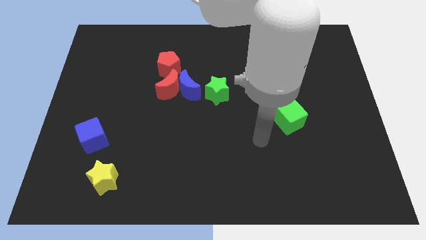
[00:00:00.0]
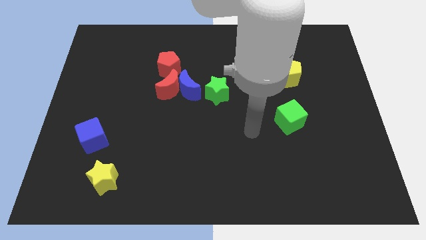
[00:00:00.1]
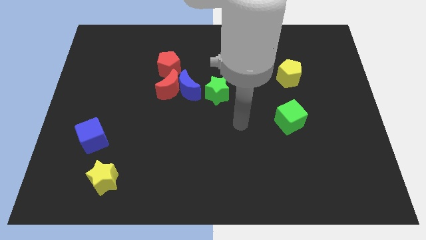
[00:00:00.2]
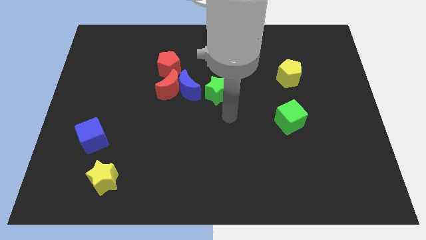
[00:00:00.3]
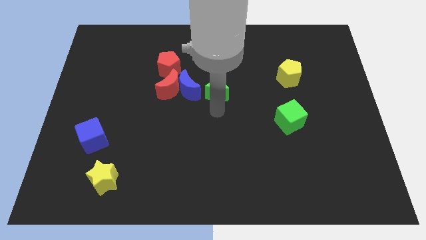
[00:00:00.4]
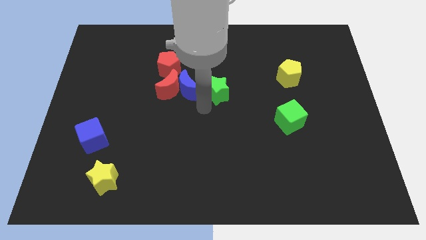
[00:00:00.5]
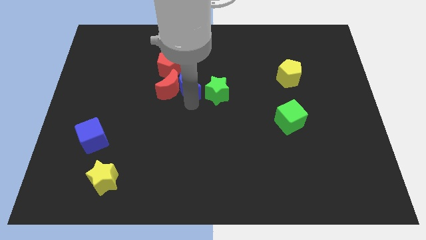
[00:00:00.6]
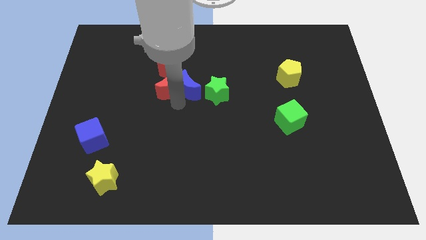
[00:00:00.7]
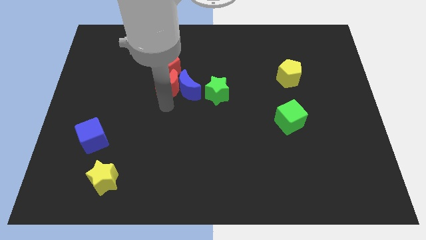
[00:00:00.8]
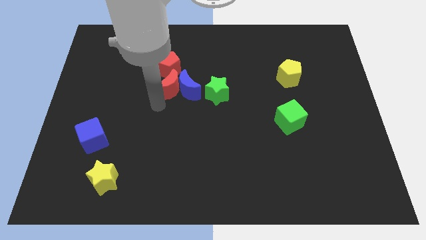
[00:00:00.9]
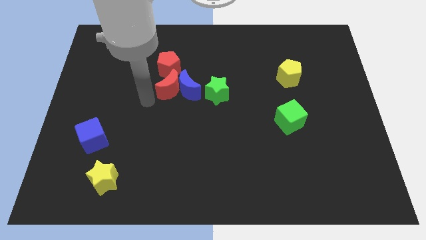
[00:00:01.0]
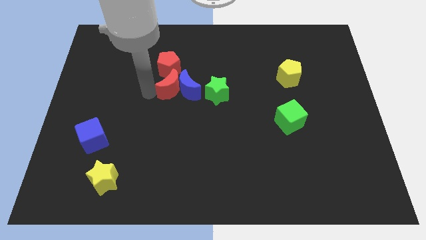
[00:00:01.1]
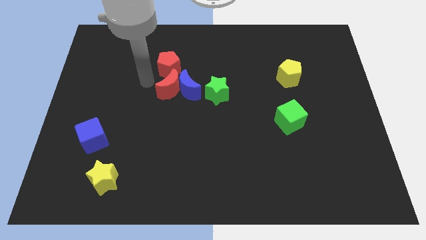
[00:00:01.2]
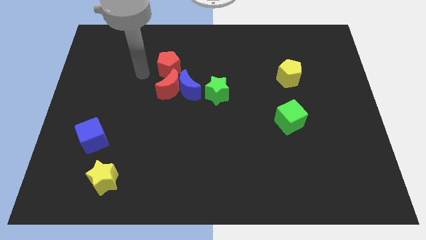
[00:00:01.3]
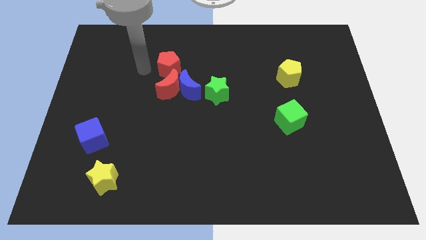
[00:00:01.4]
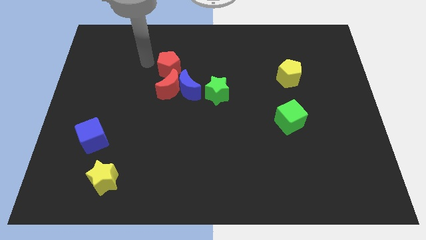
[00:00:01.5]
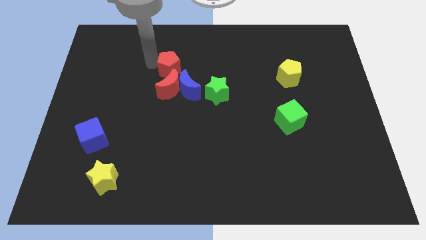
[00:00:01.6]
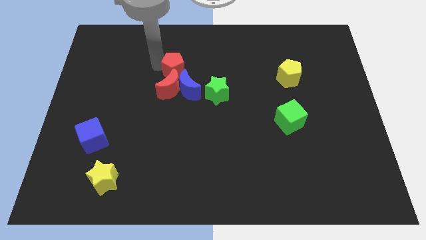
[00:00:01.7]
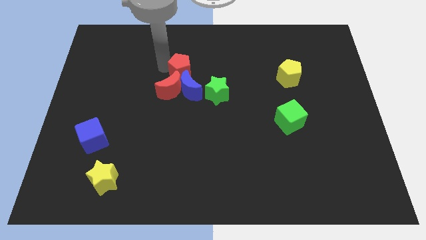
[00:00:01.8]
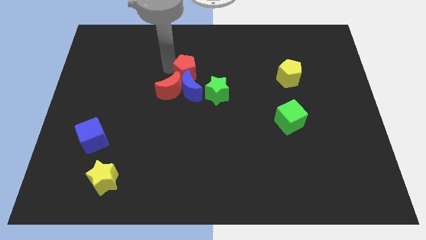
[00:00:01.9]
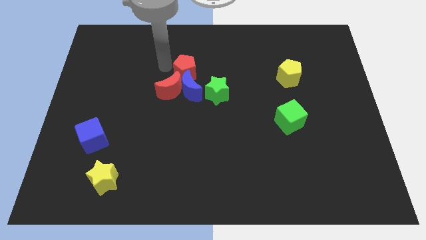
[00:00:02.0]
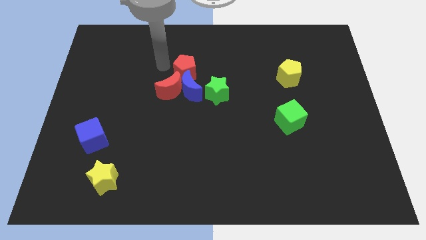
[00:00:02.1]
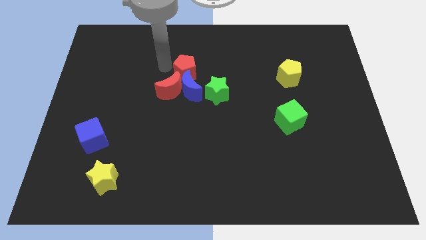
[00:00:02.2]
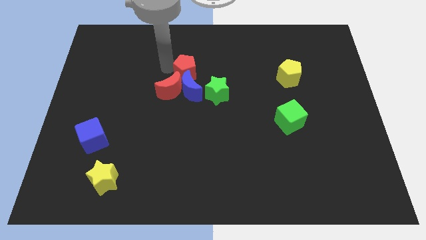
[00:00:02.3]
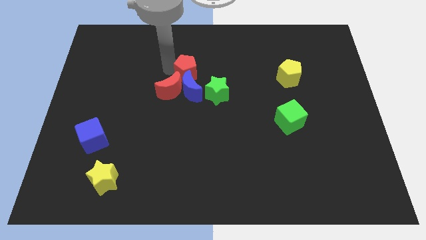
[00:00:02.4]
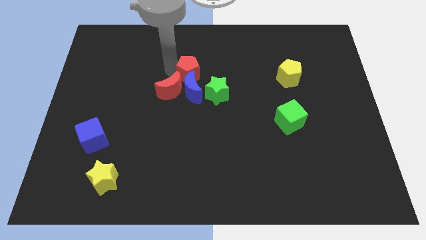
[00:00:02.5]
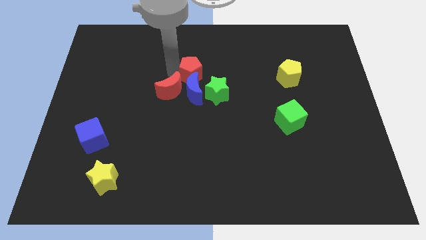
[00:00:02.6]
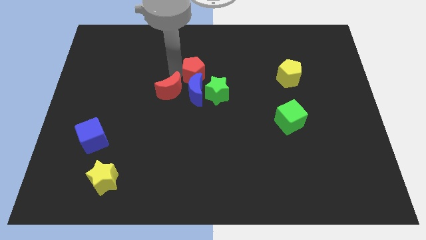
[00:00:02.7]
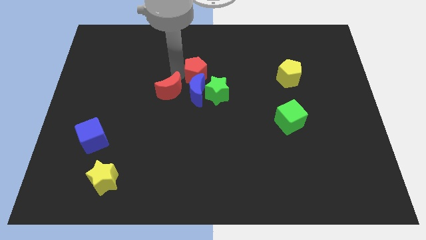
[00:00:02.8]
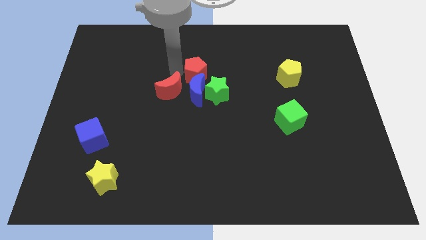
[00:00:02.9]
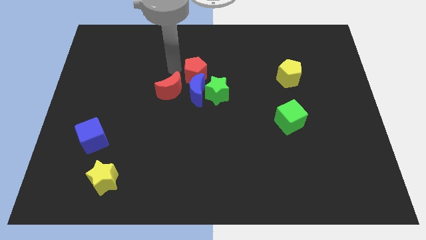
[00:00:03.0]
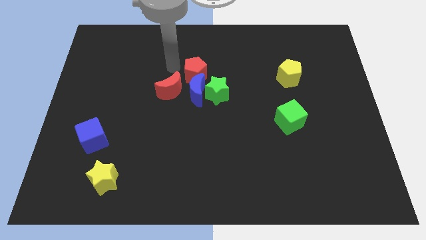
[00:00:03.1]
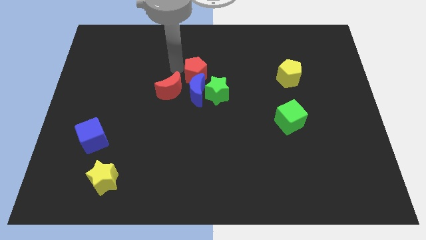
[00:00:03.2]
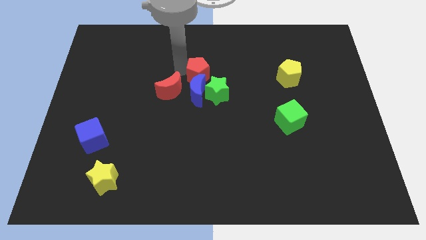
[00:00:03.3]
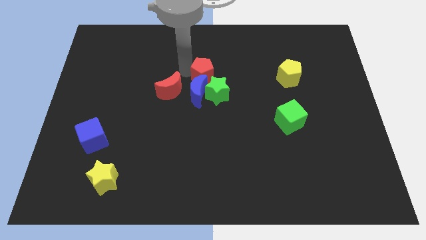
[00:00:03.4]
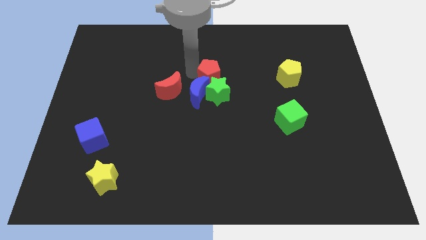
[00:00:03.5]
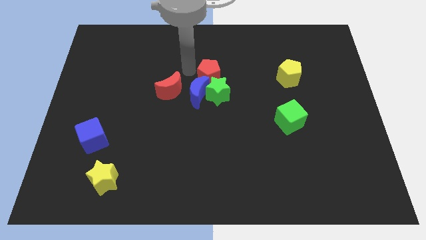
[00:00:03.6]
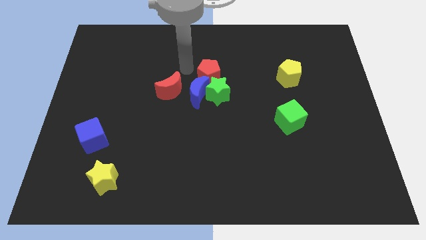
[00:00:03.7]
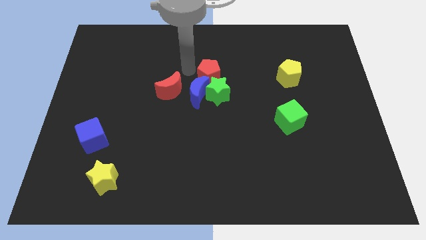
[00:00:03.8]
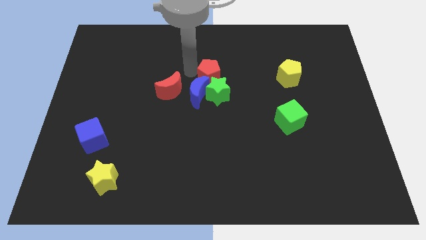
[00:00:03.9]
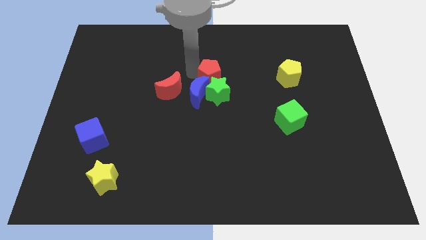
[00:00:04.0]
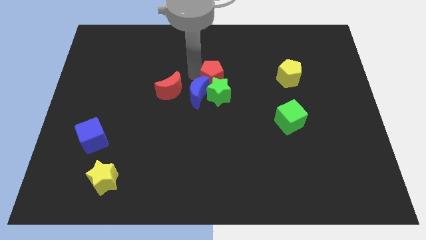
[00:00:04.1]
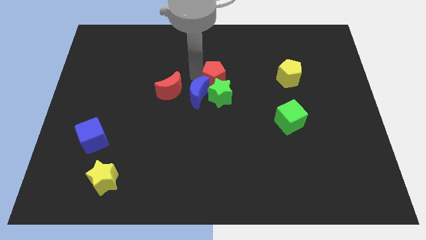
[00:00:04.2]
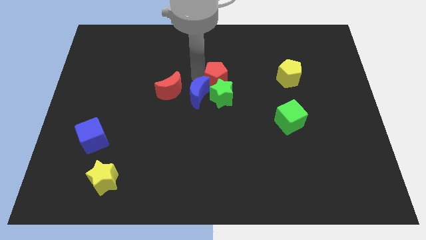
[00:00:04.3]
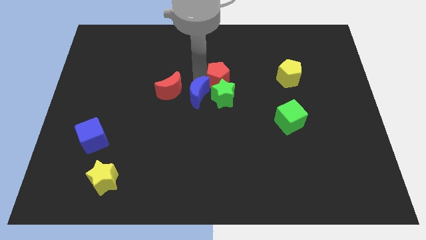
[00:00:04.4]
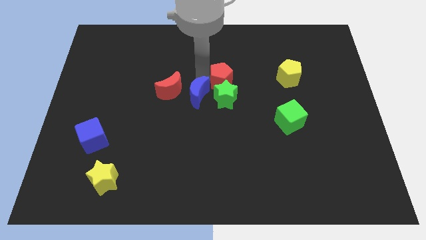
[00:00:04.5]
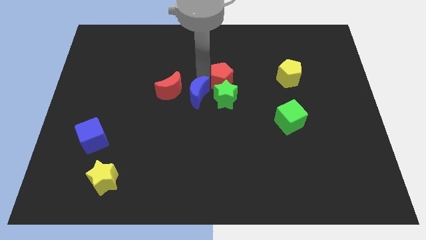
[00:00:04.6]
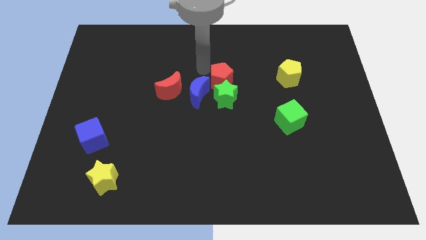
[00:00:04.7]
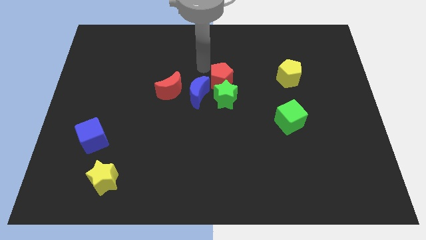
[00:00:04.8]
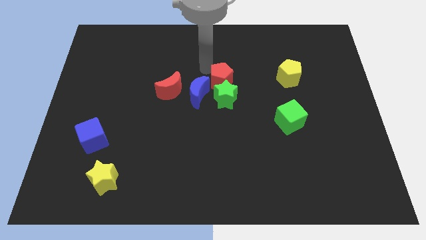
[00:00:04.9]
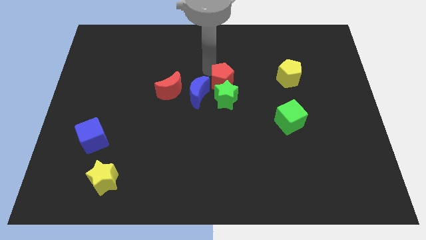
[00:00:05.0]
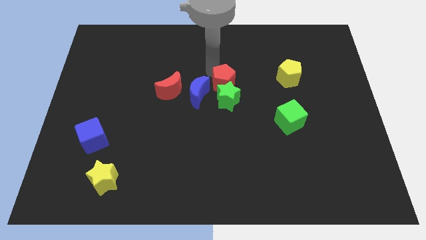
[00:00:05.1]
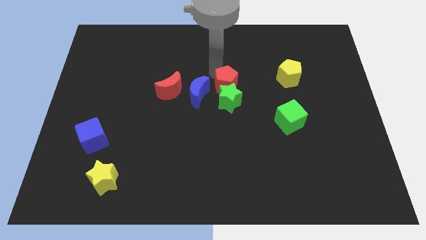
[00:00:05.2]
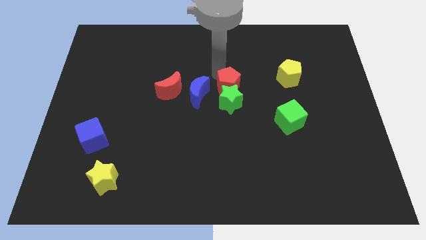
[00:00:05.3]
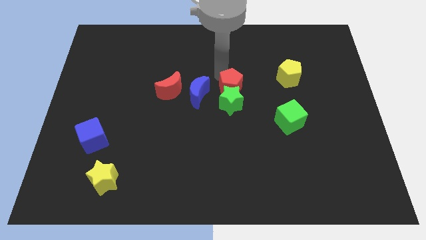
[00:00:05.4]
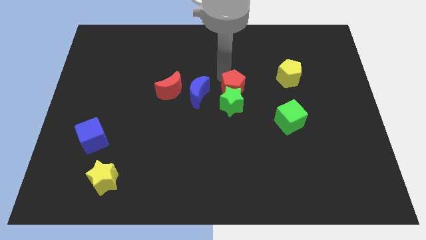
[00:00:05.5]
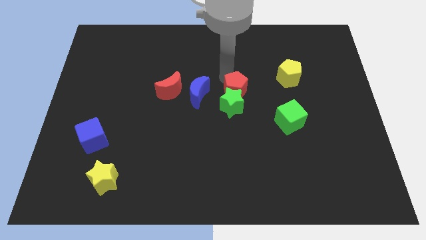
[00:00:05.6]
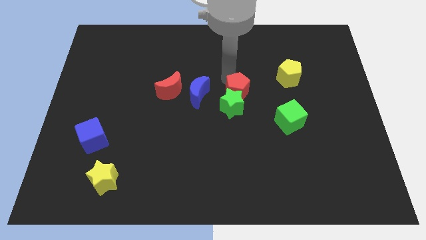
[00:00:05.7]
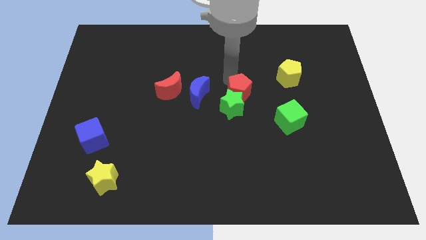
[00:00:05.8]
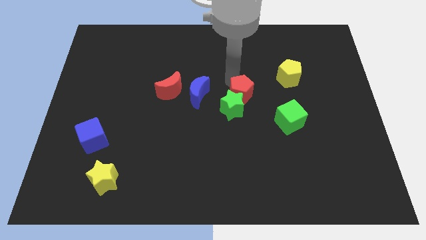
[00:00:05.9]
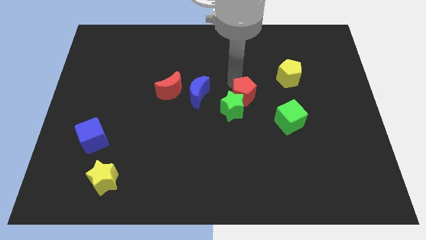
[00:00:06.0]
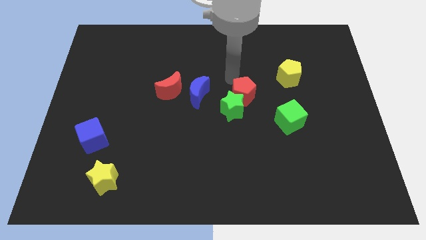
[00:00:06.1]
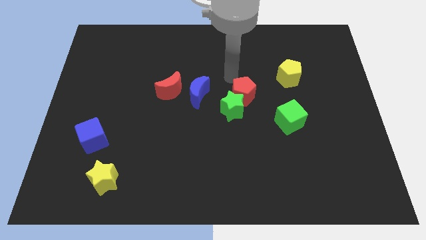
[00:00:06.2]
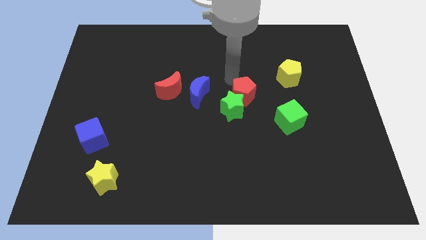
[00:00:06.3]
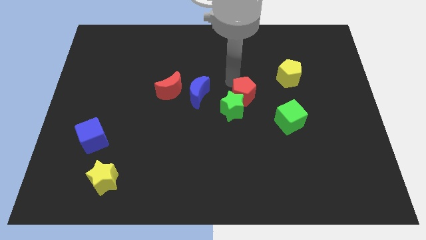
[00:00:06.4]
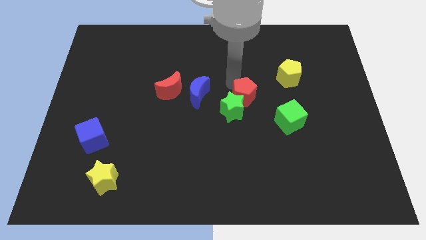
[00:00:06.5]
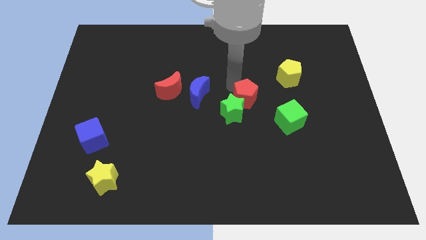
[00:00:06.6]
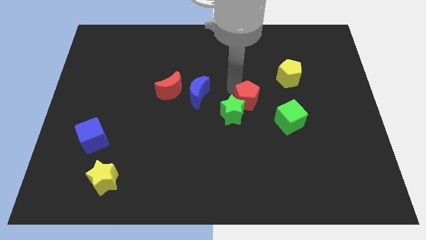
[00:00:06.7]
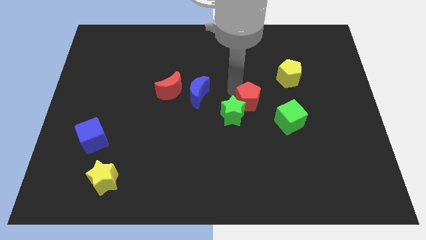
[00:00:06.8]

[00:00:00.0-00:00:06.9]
move the red pentagon downwards and to the right diagonally

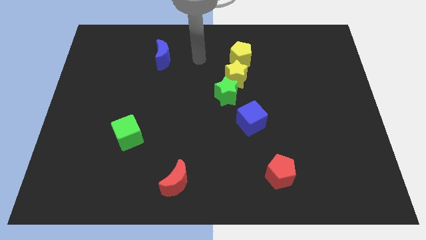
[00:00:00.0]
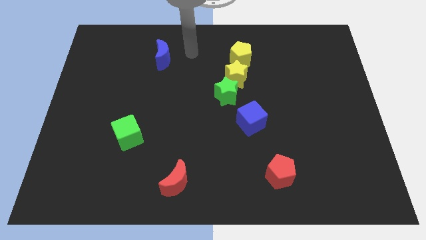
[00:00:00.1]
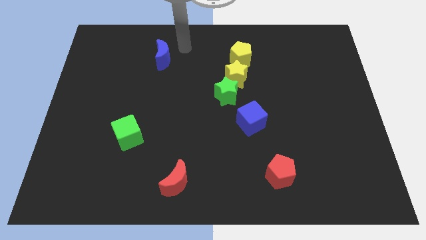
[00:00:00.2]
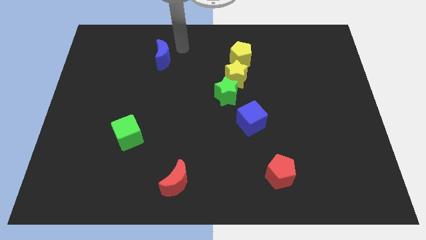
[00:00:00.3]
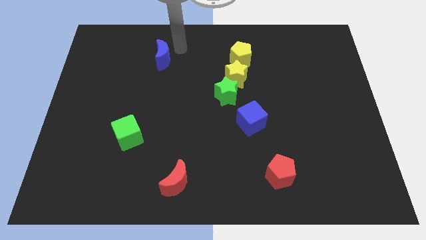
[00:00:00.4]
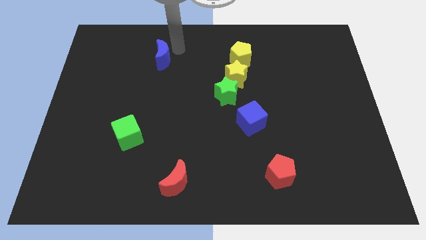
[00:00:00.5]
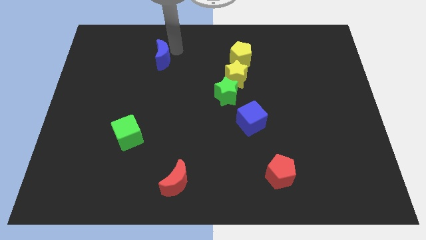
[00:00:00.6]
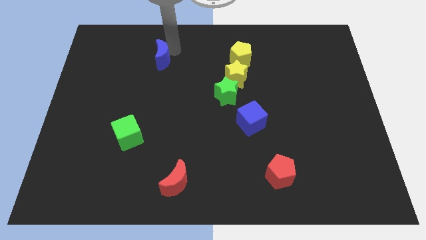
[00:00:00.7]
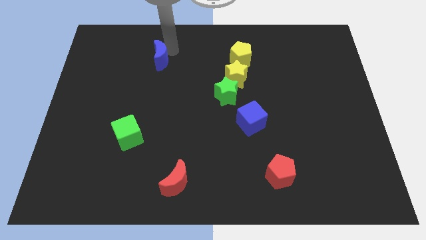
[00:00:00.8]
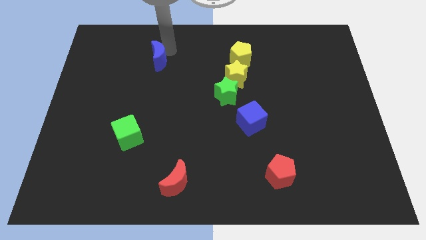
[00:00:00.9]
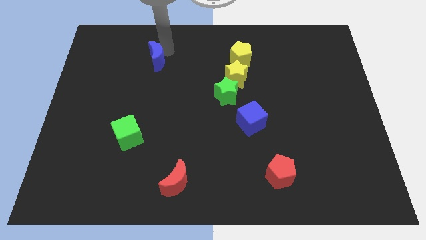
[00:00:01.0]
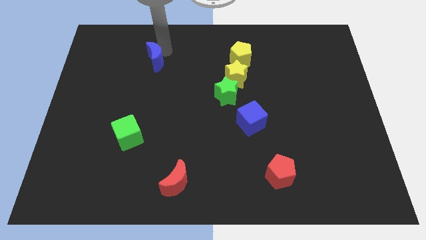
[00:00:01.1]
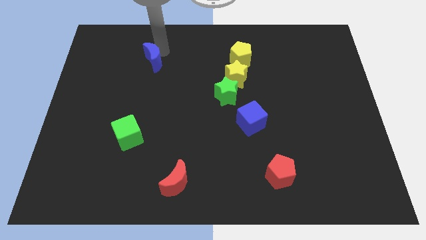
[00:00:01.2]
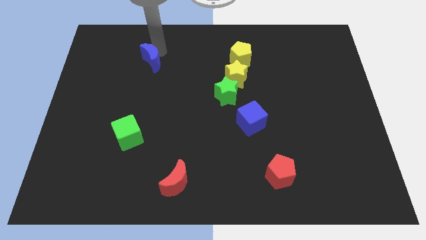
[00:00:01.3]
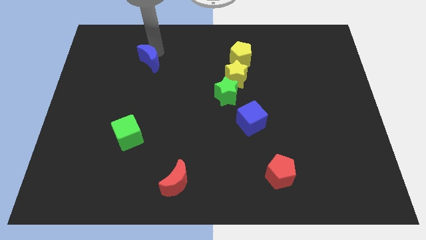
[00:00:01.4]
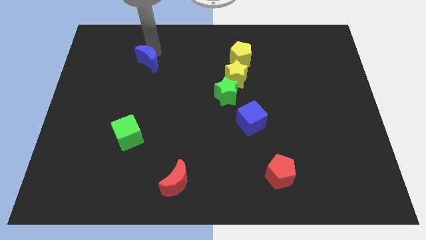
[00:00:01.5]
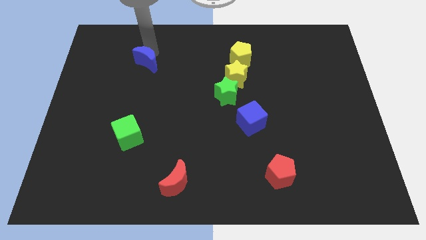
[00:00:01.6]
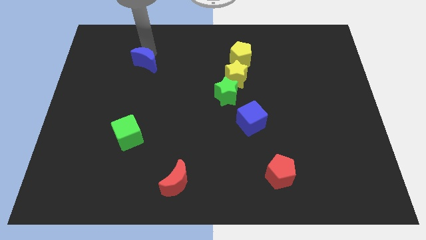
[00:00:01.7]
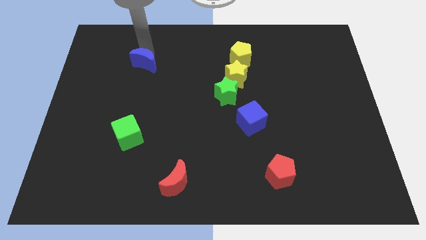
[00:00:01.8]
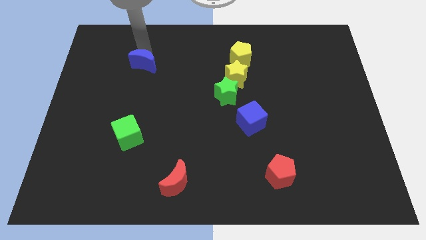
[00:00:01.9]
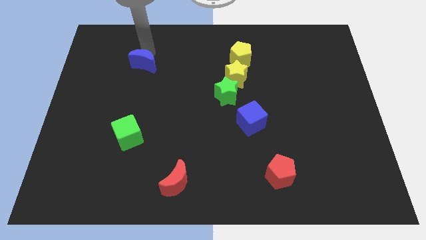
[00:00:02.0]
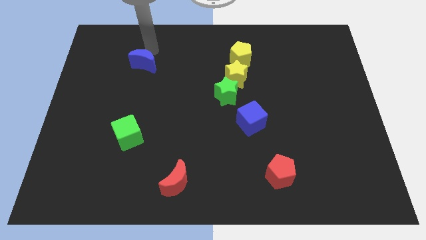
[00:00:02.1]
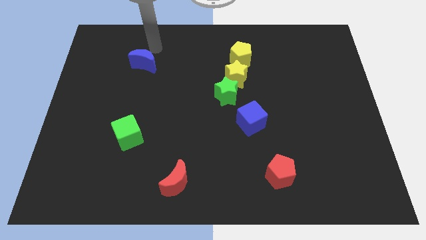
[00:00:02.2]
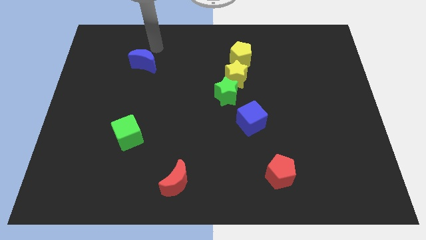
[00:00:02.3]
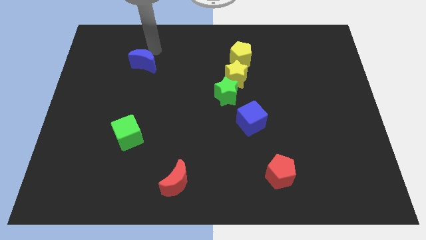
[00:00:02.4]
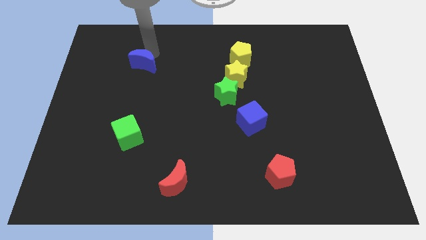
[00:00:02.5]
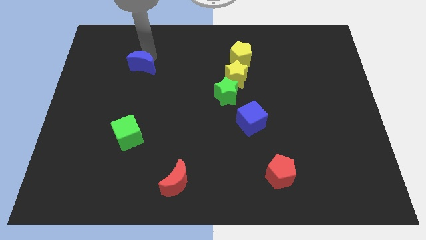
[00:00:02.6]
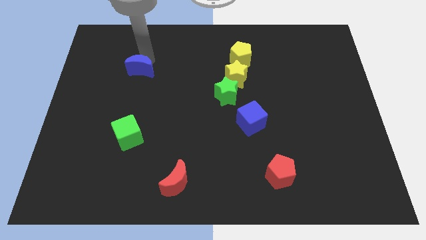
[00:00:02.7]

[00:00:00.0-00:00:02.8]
slightly push the blue moon down and then to the left
